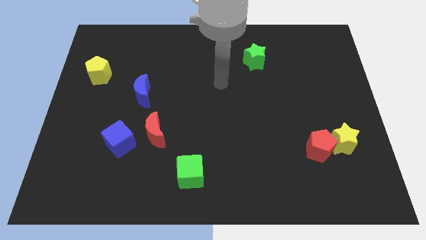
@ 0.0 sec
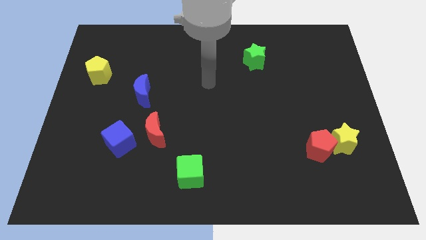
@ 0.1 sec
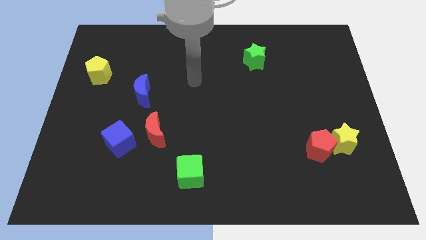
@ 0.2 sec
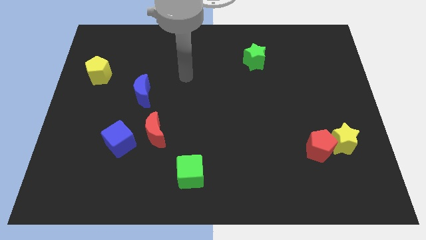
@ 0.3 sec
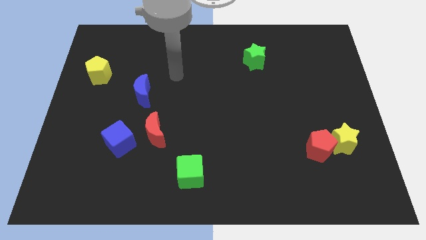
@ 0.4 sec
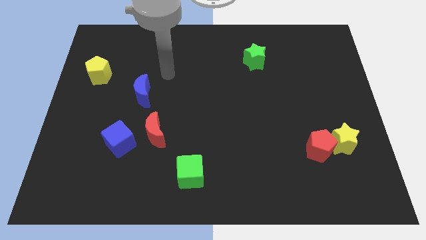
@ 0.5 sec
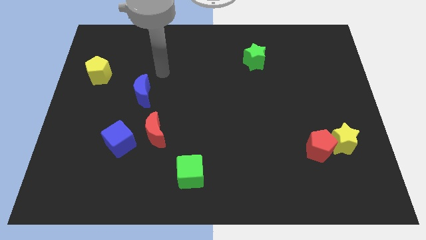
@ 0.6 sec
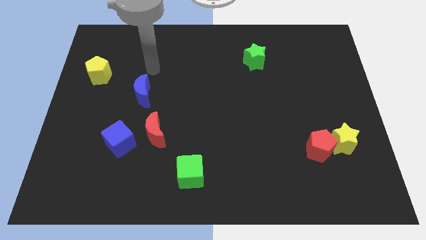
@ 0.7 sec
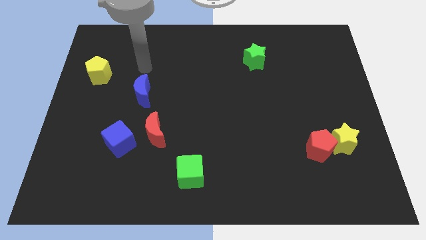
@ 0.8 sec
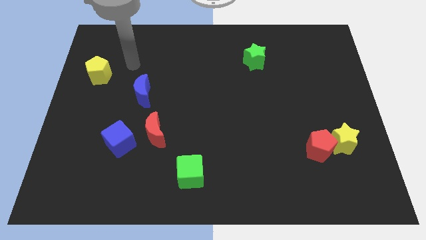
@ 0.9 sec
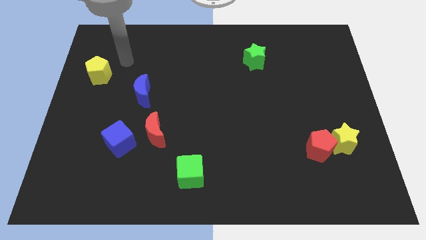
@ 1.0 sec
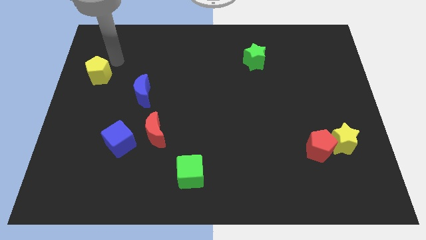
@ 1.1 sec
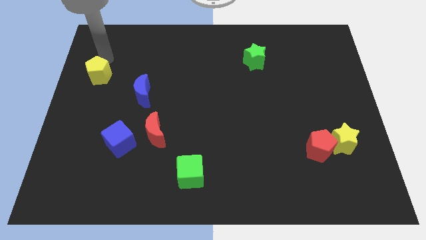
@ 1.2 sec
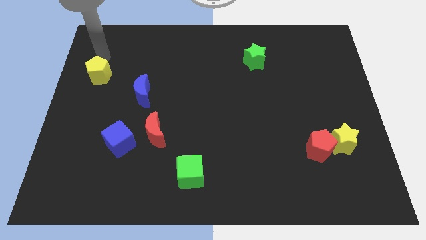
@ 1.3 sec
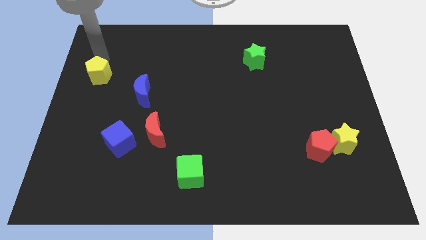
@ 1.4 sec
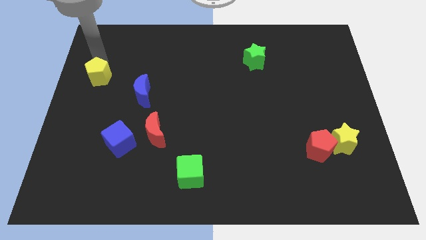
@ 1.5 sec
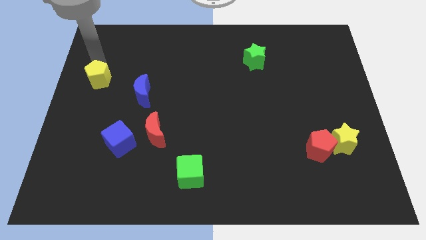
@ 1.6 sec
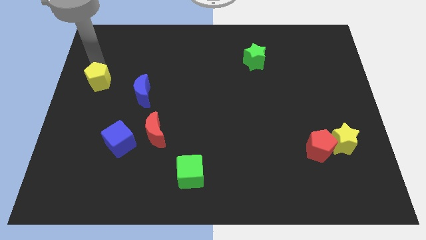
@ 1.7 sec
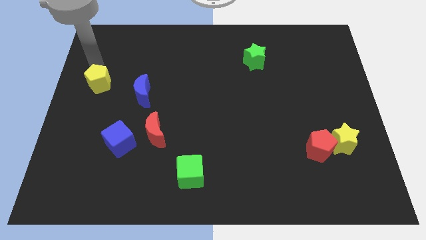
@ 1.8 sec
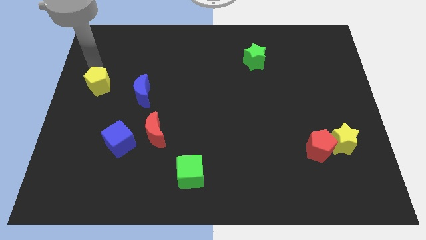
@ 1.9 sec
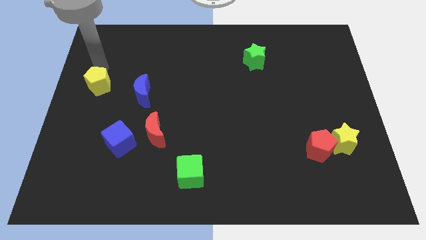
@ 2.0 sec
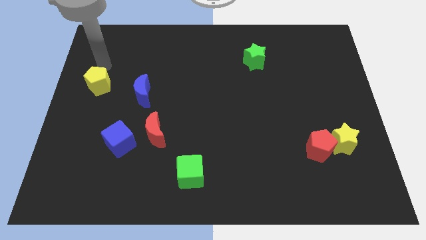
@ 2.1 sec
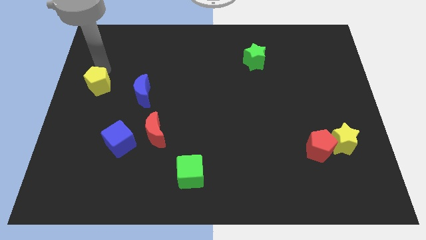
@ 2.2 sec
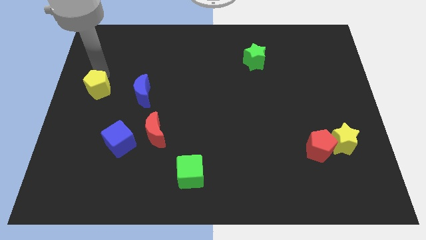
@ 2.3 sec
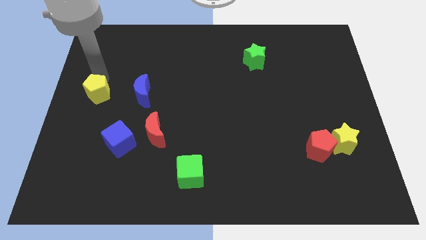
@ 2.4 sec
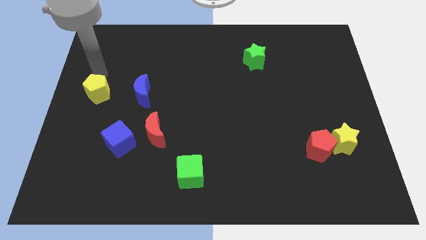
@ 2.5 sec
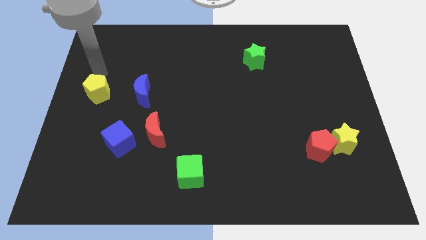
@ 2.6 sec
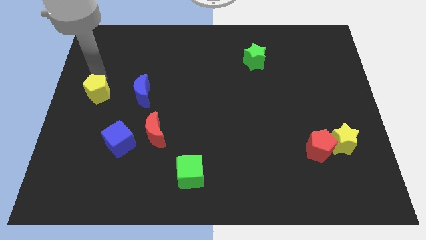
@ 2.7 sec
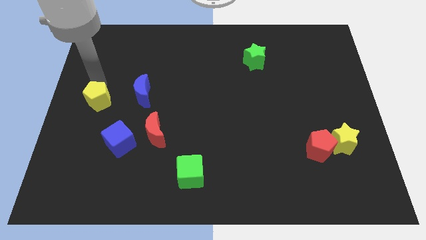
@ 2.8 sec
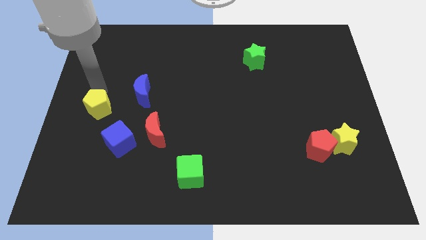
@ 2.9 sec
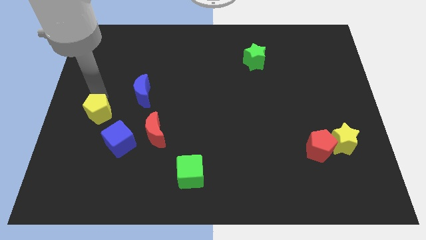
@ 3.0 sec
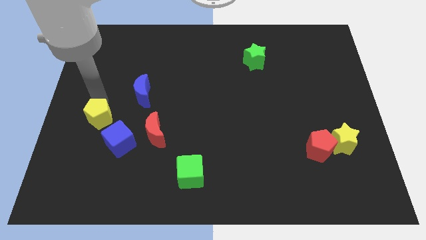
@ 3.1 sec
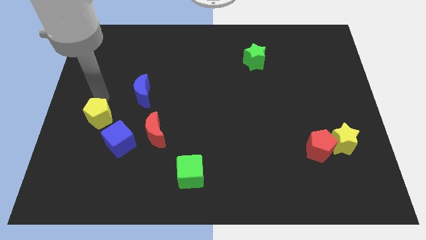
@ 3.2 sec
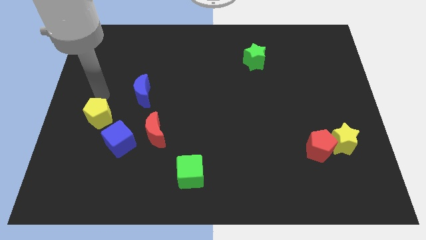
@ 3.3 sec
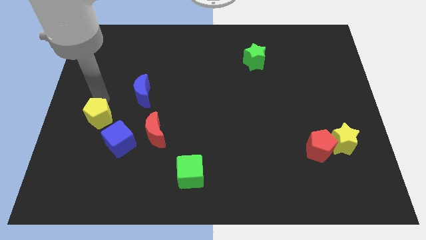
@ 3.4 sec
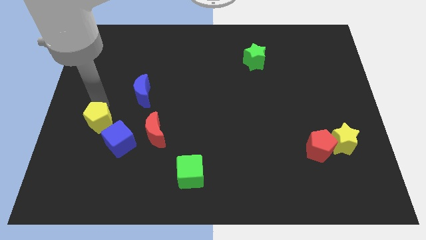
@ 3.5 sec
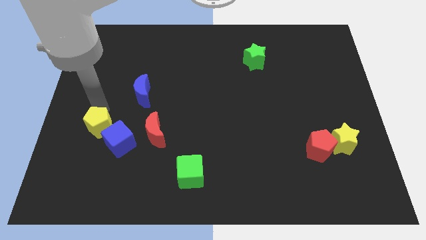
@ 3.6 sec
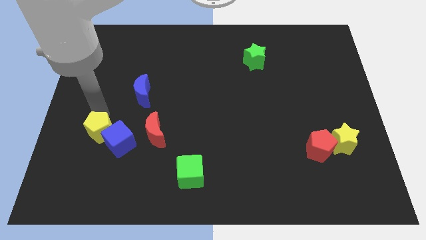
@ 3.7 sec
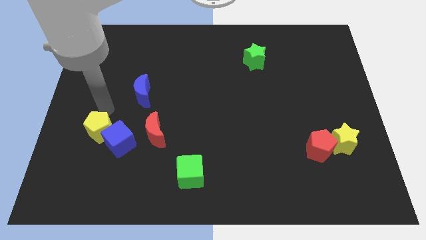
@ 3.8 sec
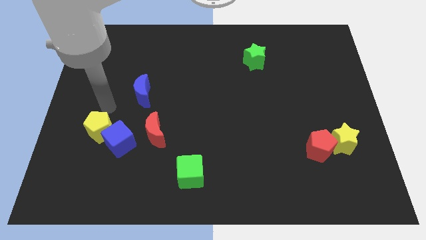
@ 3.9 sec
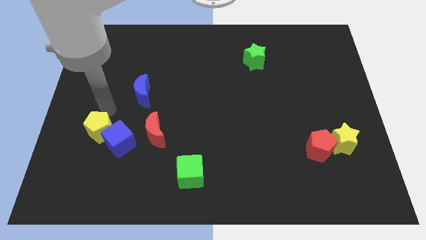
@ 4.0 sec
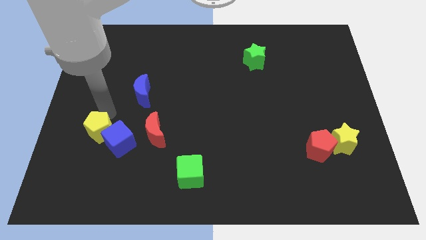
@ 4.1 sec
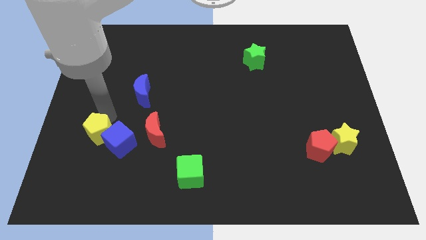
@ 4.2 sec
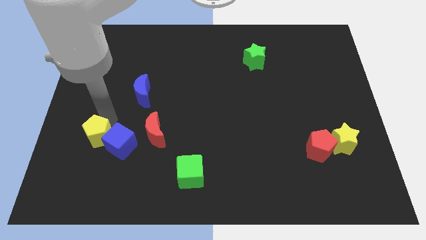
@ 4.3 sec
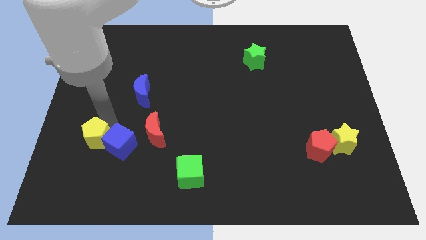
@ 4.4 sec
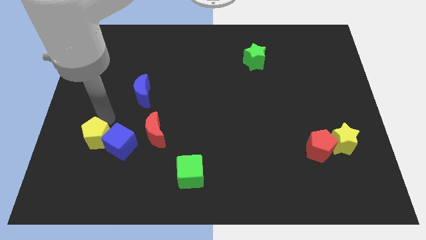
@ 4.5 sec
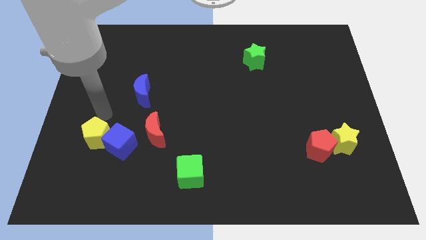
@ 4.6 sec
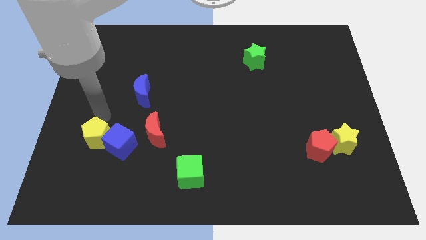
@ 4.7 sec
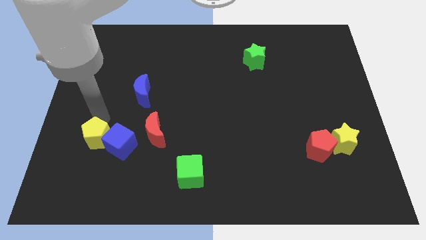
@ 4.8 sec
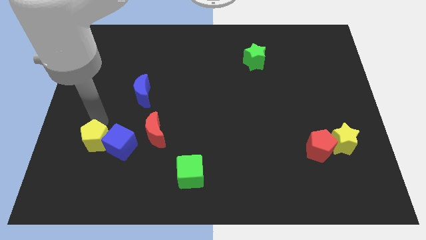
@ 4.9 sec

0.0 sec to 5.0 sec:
slide the yellow pentagon to the bottom left side of the blue cube

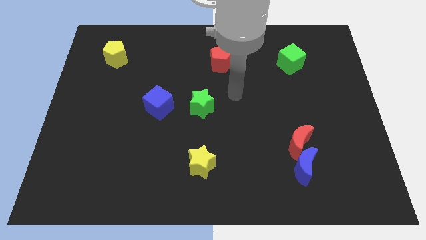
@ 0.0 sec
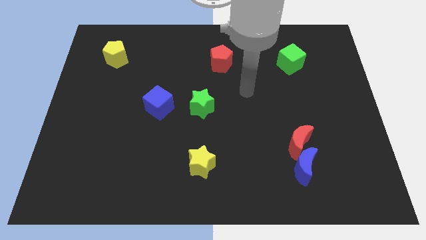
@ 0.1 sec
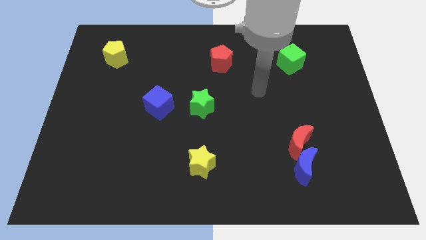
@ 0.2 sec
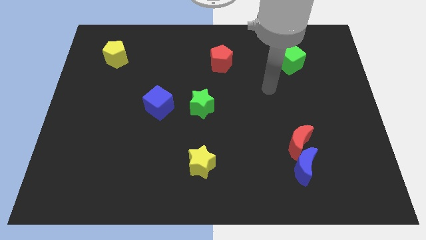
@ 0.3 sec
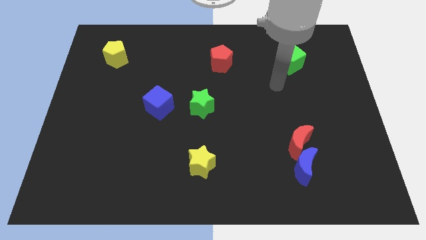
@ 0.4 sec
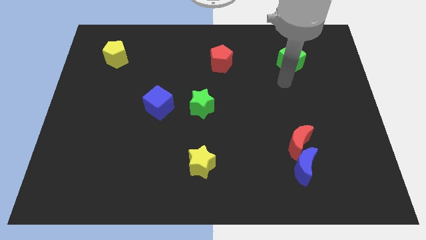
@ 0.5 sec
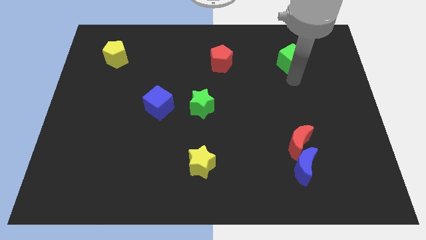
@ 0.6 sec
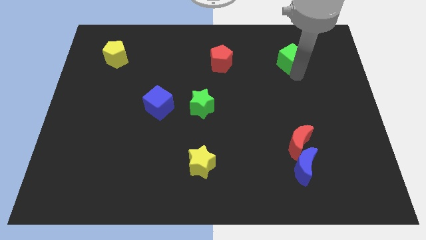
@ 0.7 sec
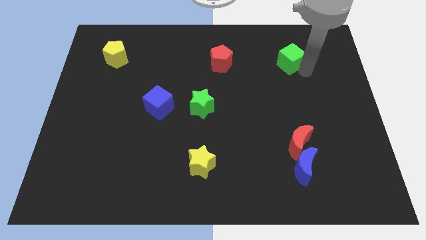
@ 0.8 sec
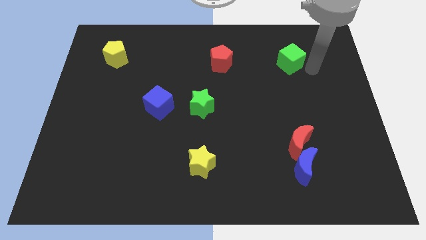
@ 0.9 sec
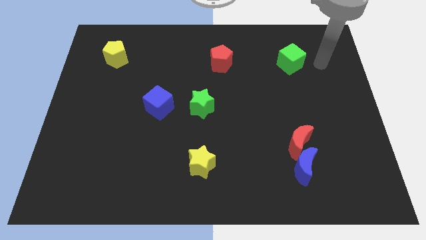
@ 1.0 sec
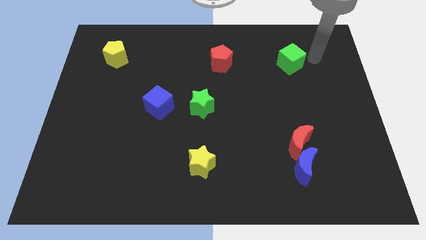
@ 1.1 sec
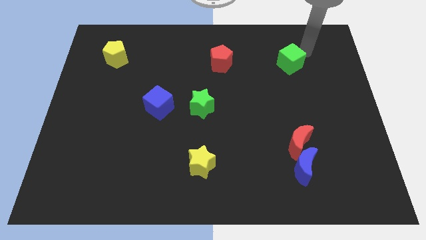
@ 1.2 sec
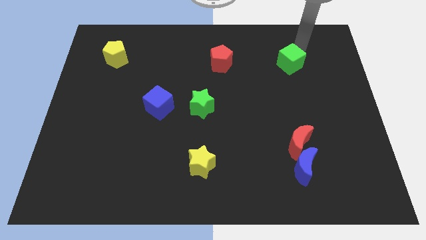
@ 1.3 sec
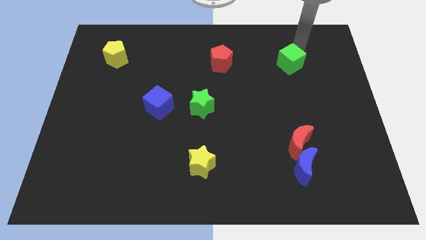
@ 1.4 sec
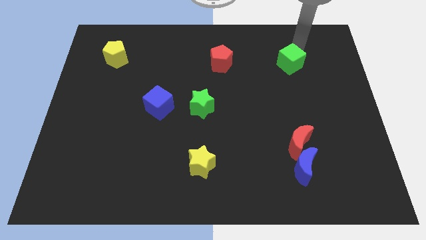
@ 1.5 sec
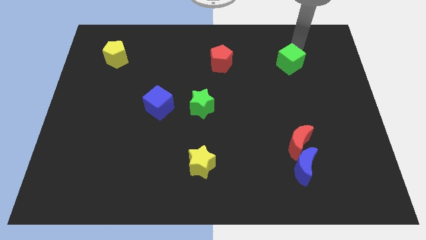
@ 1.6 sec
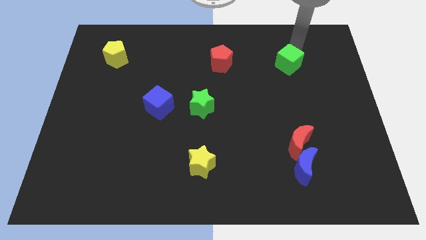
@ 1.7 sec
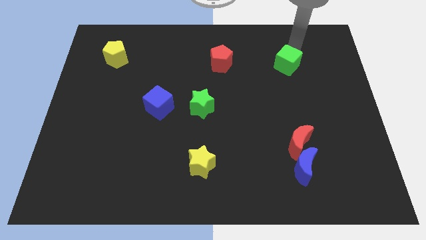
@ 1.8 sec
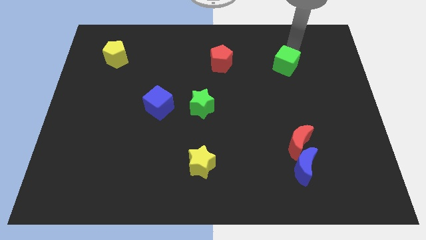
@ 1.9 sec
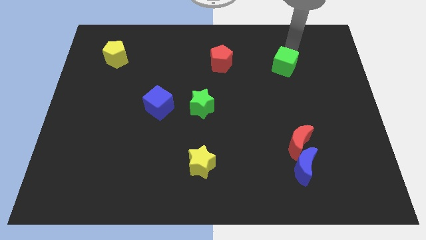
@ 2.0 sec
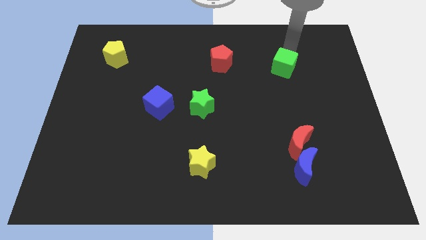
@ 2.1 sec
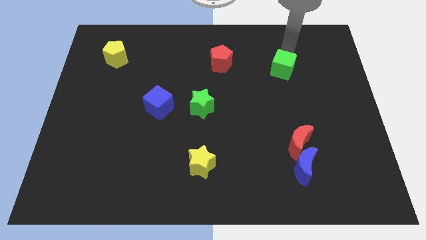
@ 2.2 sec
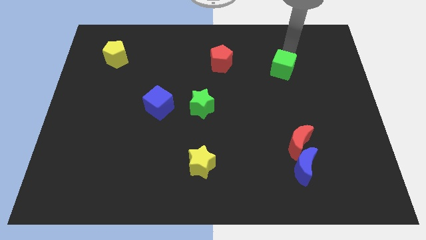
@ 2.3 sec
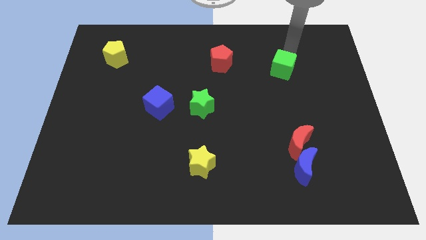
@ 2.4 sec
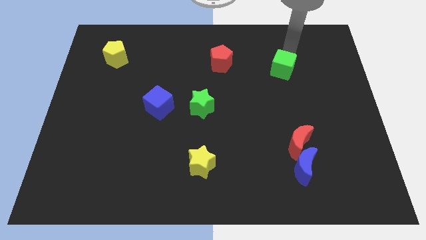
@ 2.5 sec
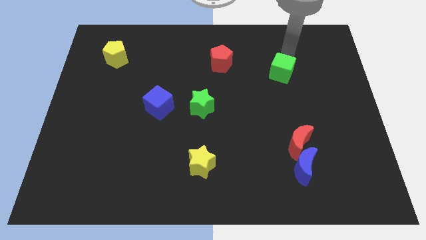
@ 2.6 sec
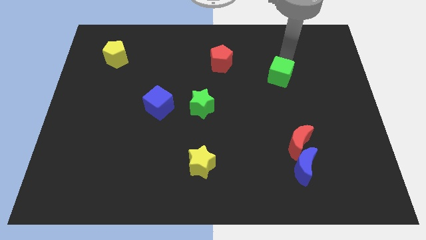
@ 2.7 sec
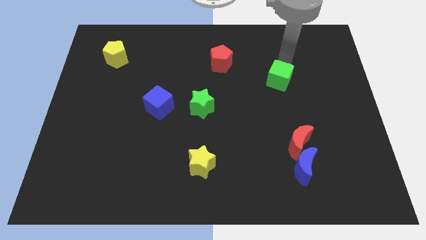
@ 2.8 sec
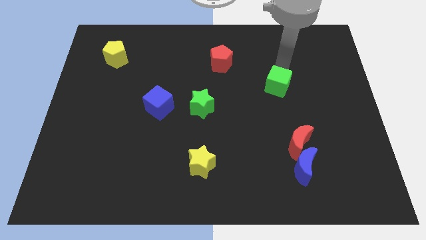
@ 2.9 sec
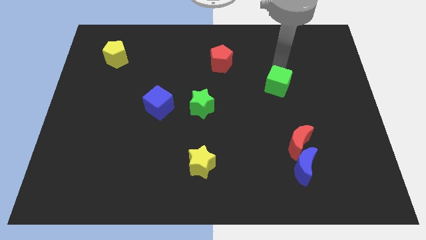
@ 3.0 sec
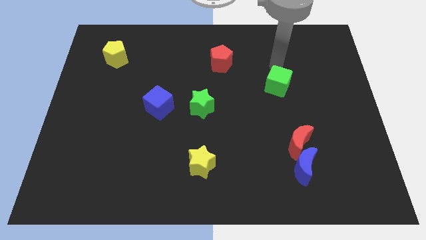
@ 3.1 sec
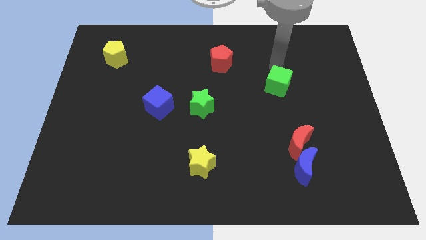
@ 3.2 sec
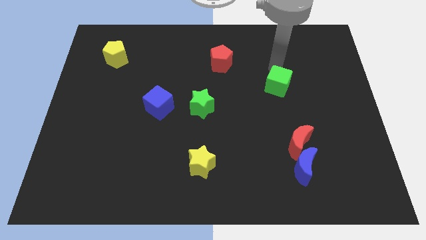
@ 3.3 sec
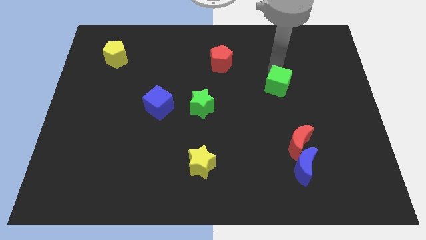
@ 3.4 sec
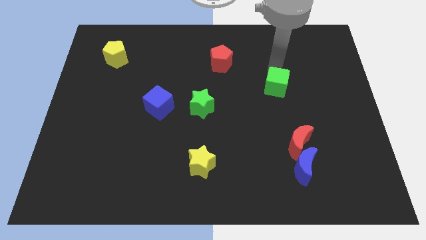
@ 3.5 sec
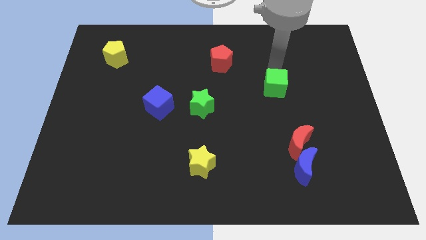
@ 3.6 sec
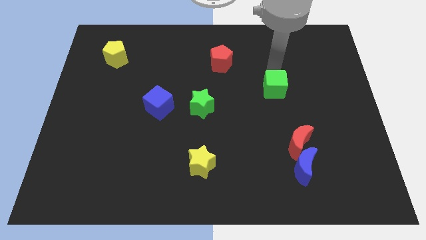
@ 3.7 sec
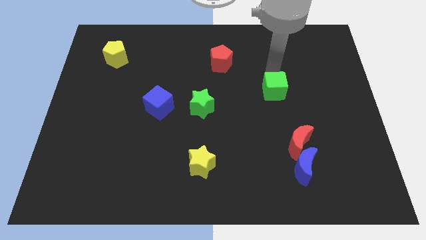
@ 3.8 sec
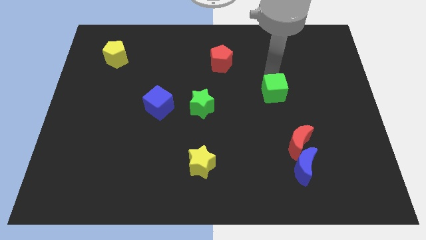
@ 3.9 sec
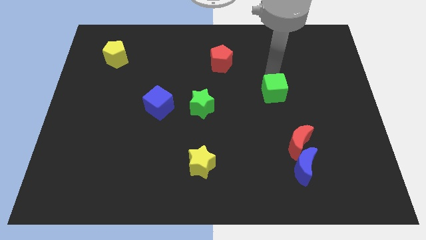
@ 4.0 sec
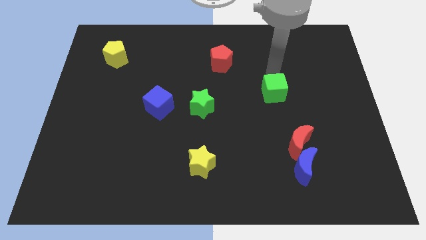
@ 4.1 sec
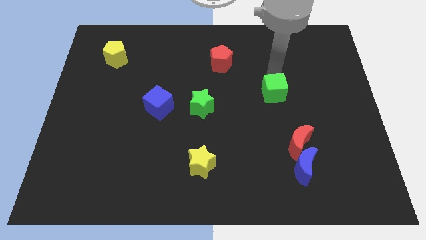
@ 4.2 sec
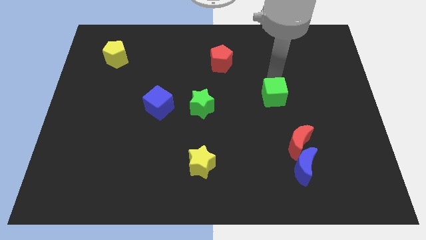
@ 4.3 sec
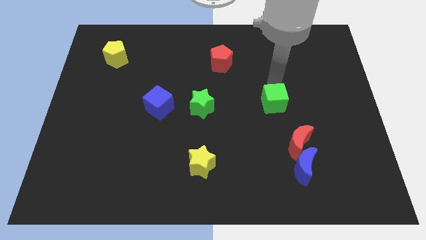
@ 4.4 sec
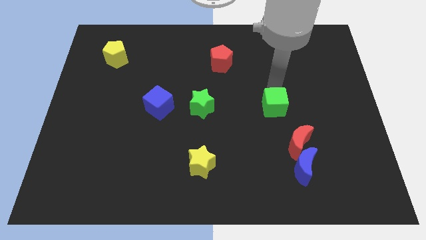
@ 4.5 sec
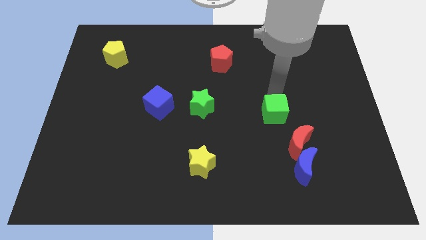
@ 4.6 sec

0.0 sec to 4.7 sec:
push the green cube diagonally up and to the left of the red moon
